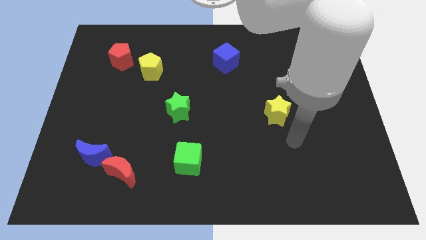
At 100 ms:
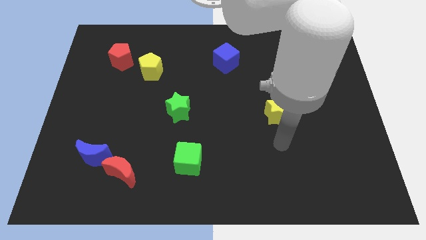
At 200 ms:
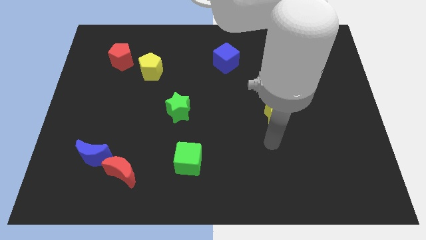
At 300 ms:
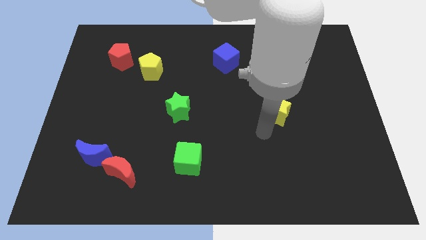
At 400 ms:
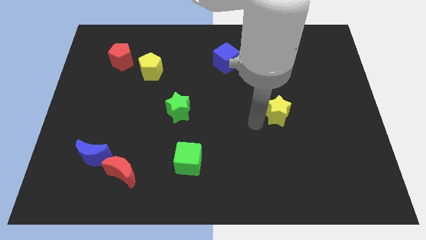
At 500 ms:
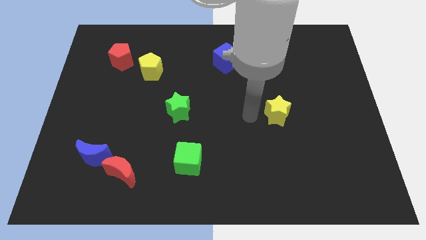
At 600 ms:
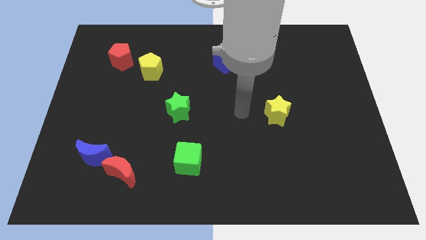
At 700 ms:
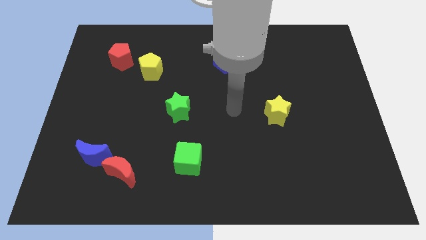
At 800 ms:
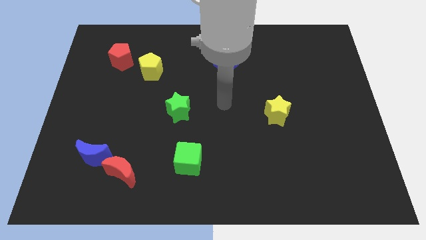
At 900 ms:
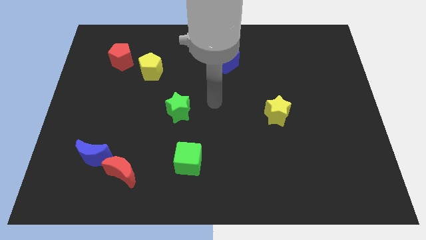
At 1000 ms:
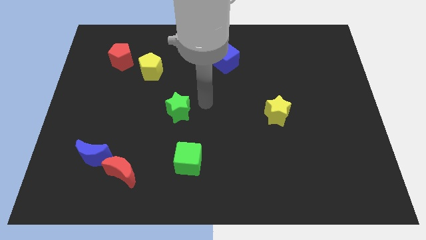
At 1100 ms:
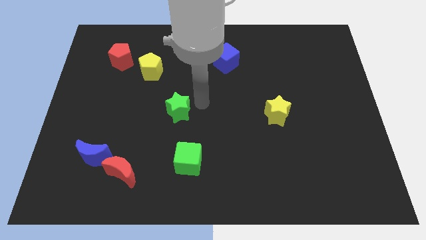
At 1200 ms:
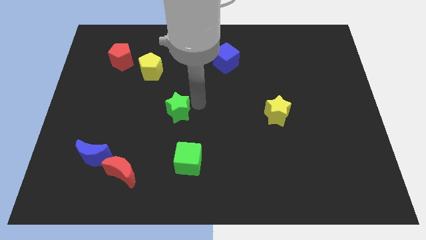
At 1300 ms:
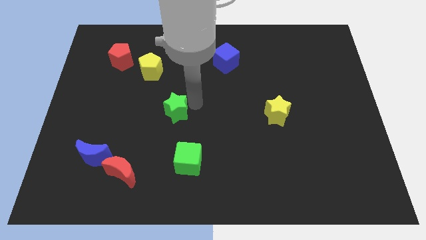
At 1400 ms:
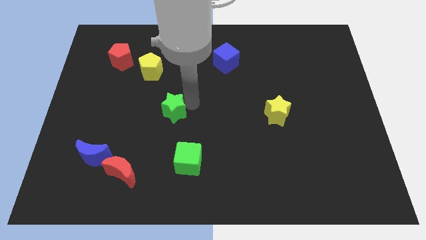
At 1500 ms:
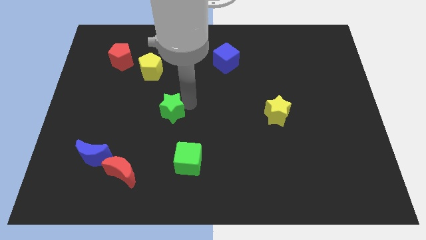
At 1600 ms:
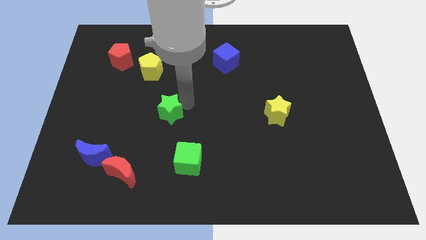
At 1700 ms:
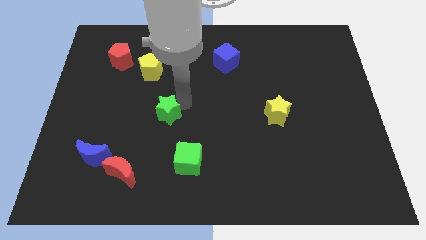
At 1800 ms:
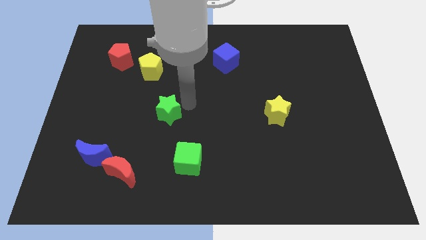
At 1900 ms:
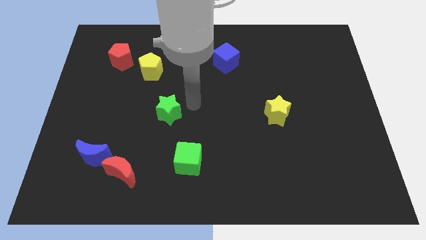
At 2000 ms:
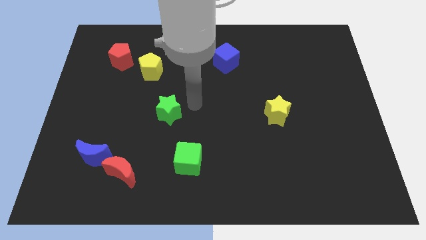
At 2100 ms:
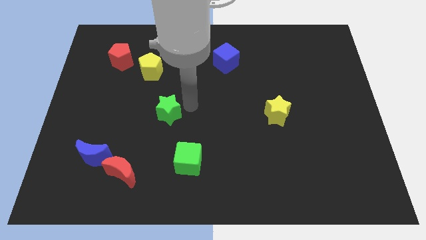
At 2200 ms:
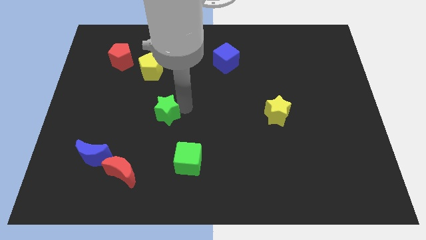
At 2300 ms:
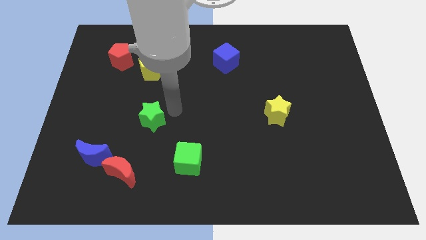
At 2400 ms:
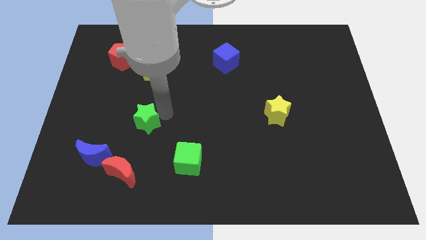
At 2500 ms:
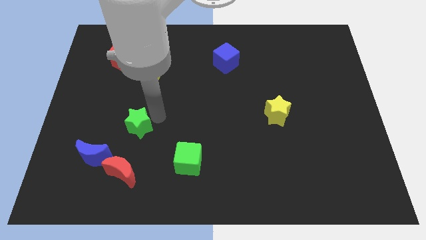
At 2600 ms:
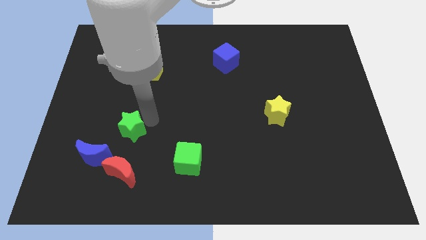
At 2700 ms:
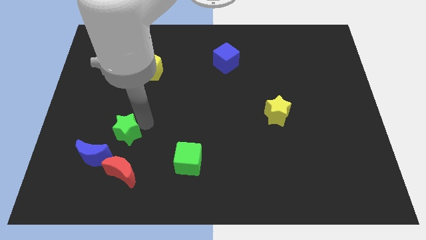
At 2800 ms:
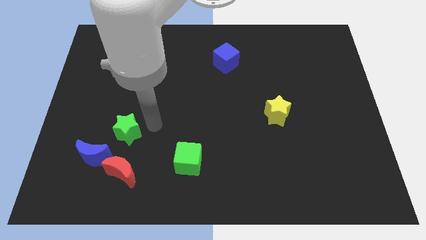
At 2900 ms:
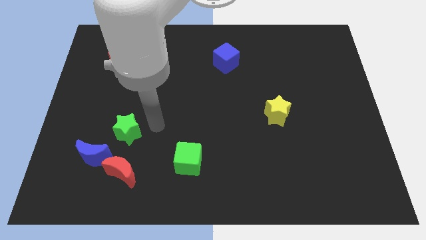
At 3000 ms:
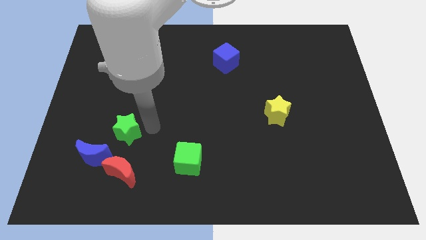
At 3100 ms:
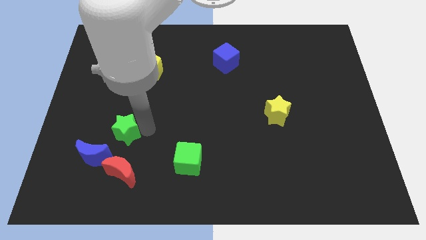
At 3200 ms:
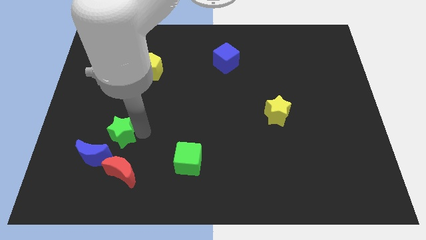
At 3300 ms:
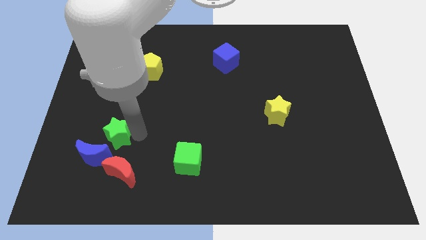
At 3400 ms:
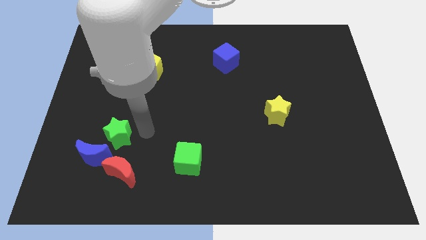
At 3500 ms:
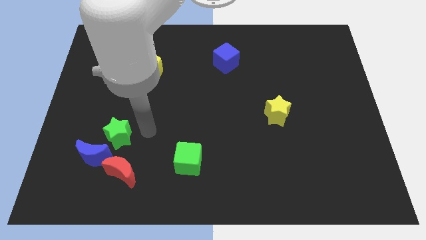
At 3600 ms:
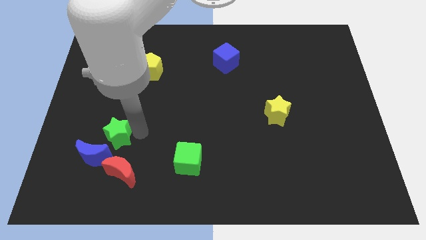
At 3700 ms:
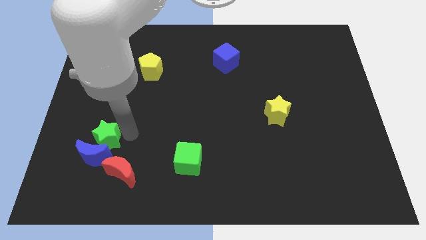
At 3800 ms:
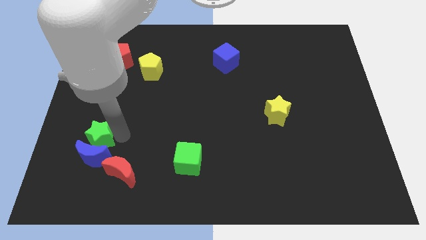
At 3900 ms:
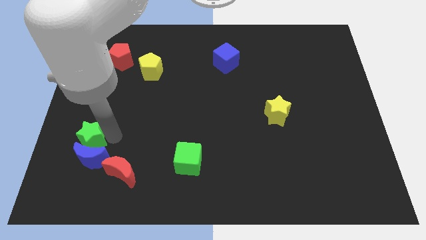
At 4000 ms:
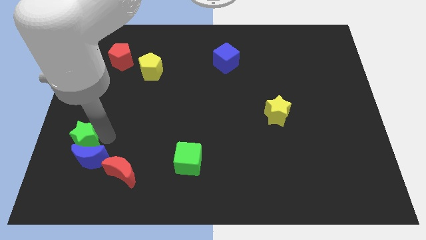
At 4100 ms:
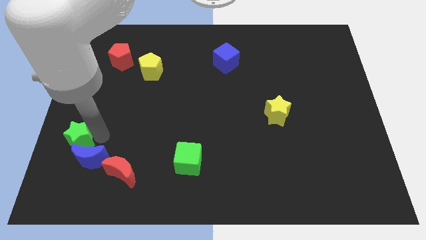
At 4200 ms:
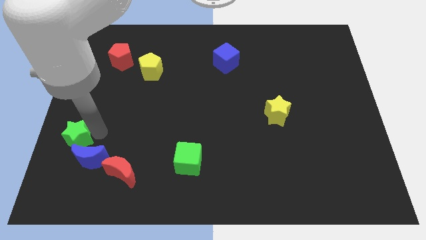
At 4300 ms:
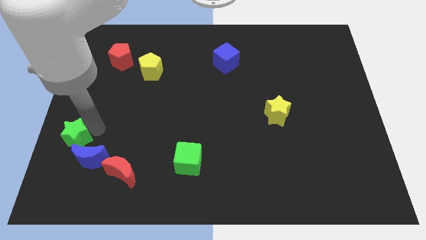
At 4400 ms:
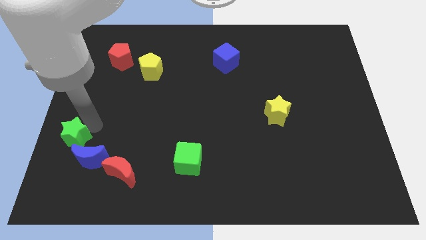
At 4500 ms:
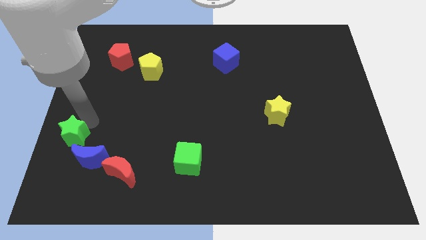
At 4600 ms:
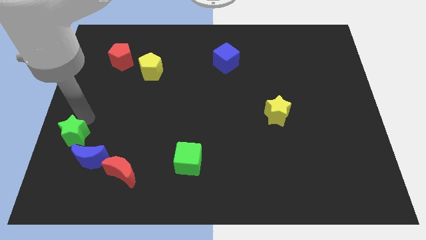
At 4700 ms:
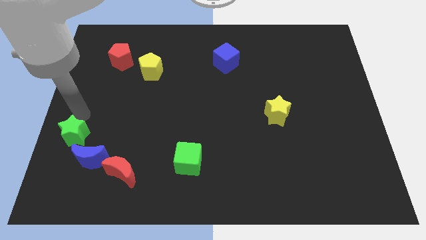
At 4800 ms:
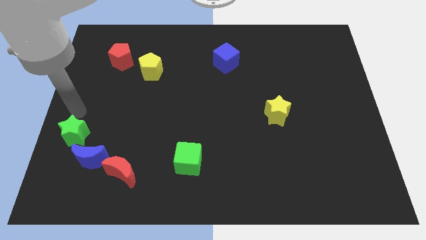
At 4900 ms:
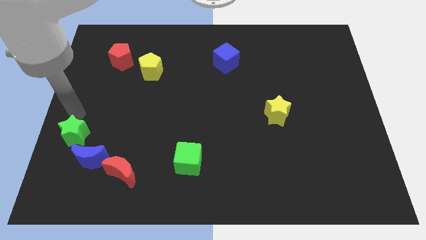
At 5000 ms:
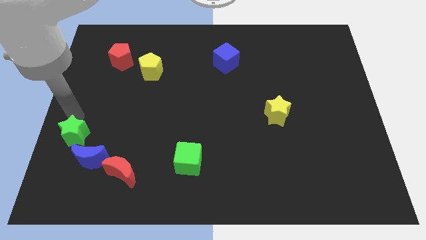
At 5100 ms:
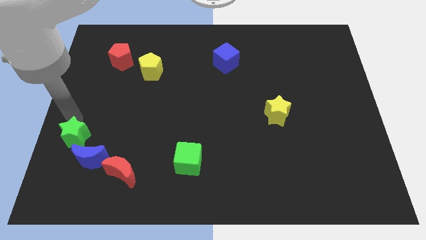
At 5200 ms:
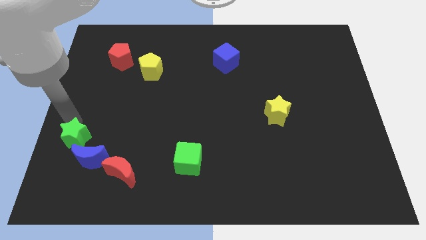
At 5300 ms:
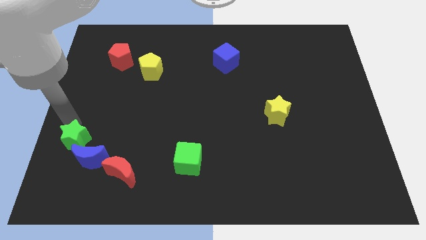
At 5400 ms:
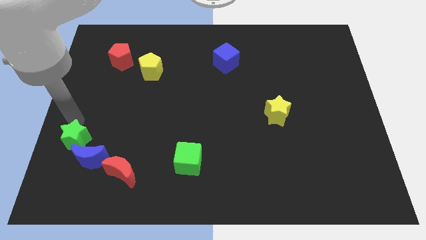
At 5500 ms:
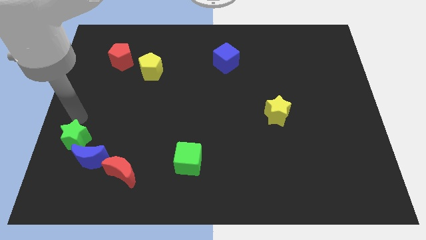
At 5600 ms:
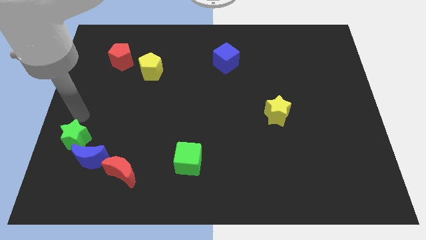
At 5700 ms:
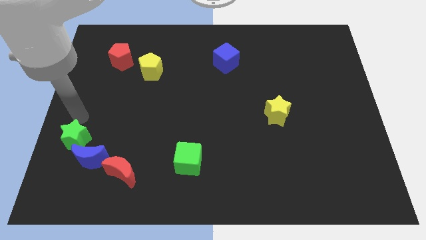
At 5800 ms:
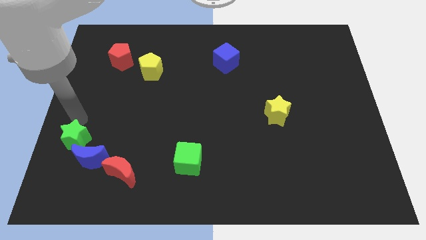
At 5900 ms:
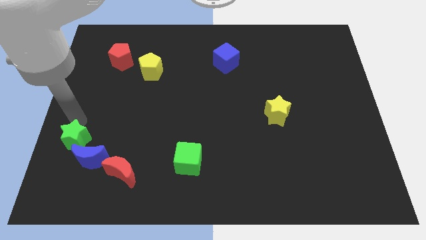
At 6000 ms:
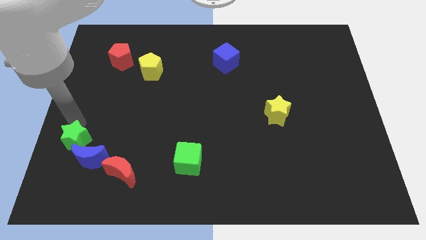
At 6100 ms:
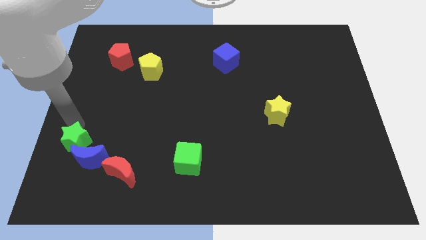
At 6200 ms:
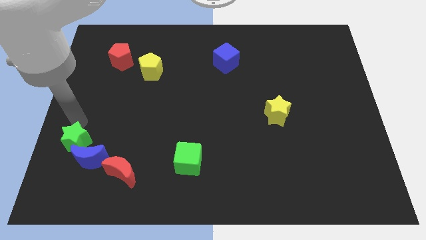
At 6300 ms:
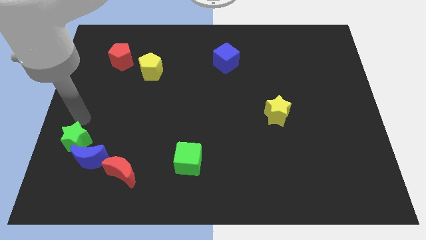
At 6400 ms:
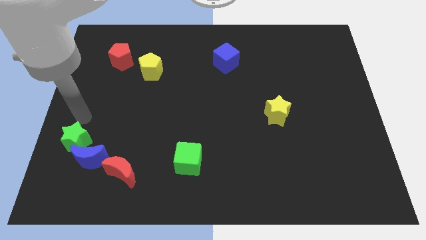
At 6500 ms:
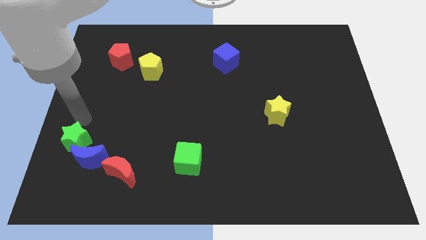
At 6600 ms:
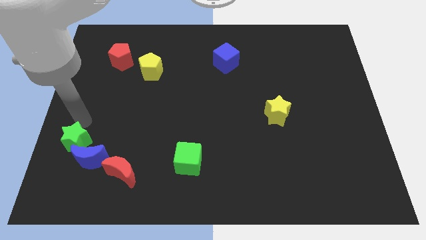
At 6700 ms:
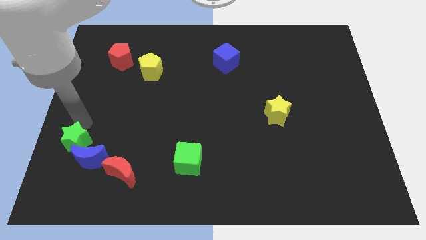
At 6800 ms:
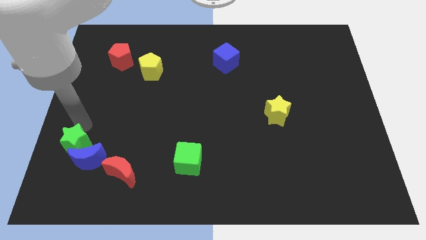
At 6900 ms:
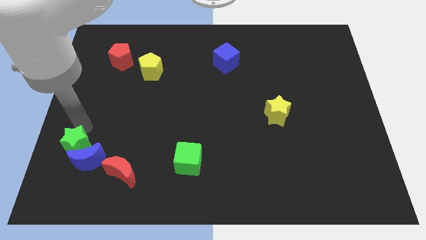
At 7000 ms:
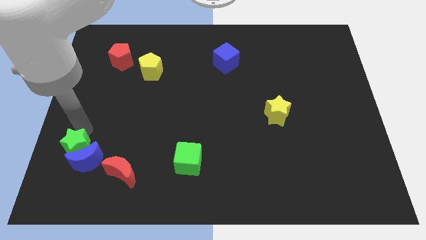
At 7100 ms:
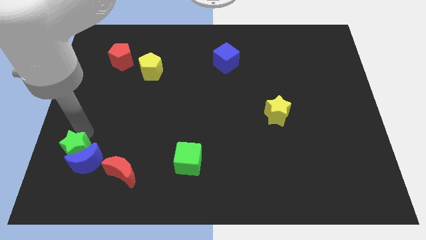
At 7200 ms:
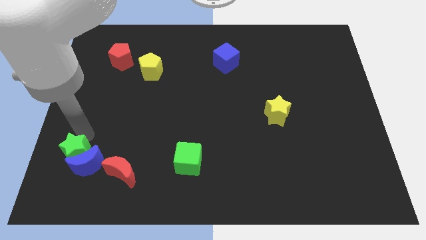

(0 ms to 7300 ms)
put the green star to the left of the red moon
